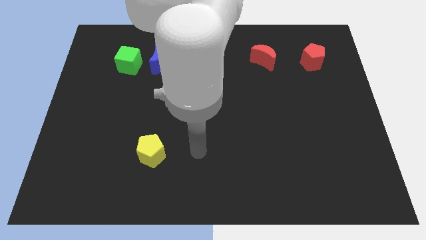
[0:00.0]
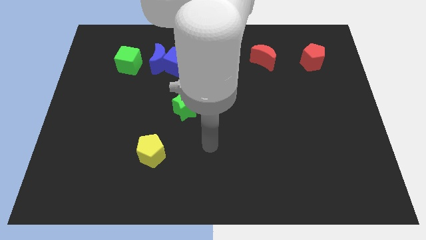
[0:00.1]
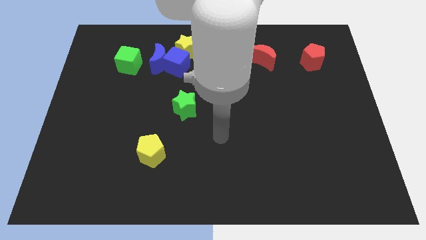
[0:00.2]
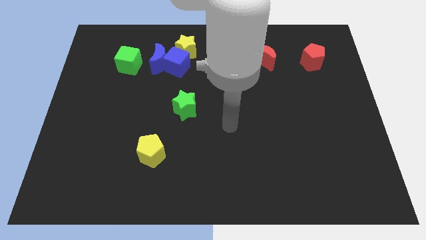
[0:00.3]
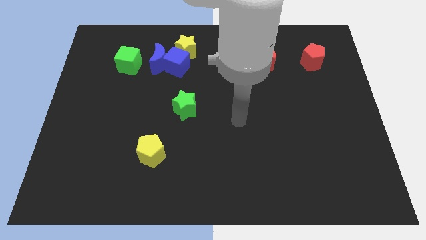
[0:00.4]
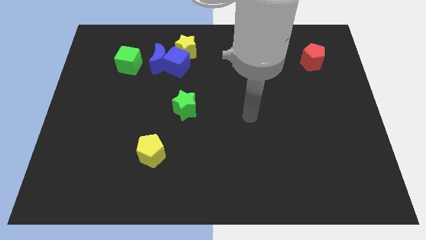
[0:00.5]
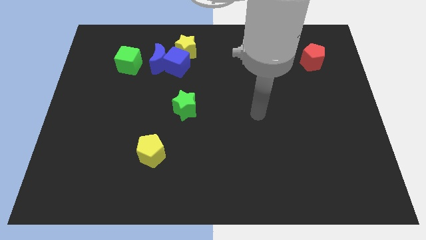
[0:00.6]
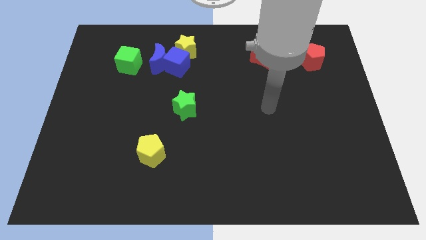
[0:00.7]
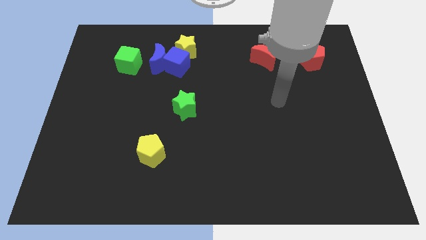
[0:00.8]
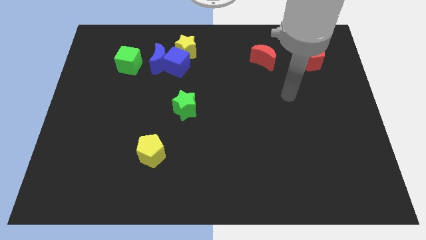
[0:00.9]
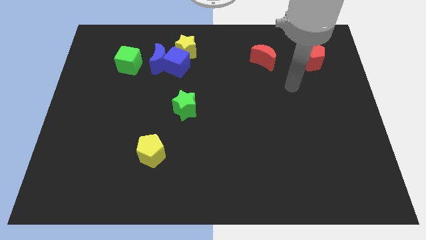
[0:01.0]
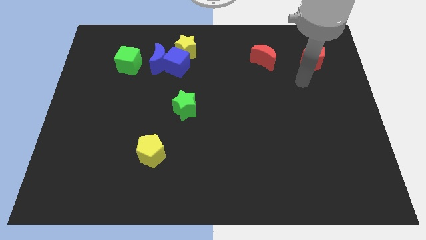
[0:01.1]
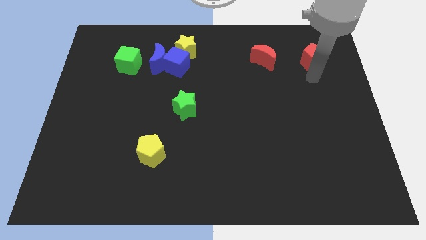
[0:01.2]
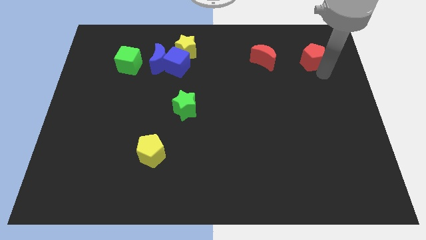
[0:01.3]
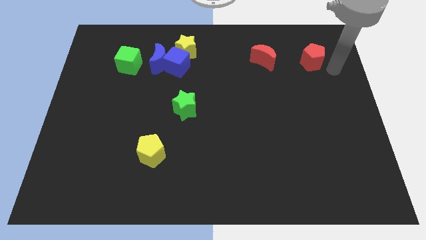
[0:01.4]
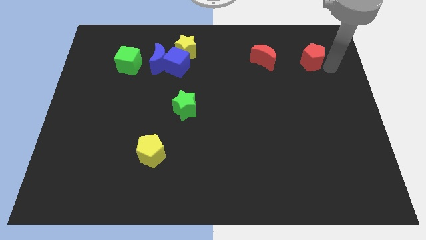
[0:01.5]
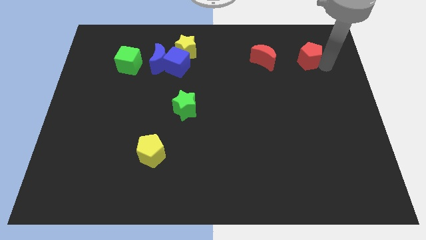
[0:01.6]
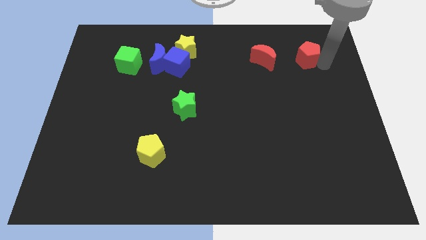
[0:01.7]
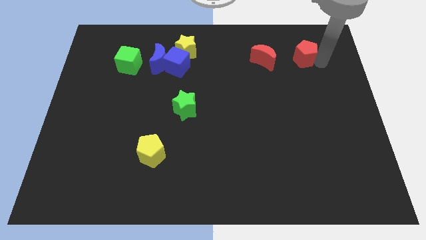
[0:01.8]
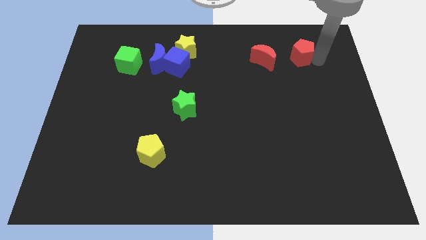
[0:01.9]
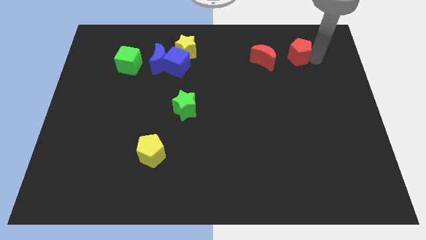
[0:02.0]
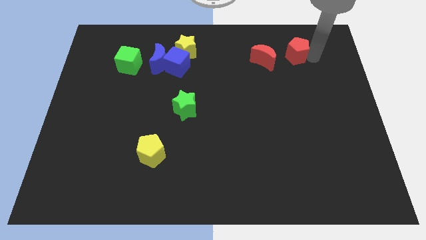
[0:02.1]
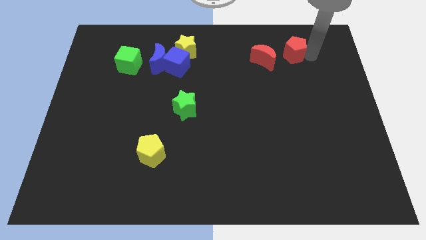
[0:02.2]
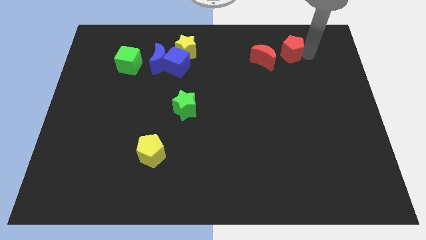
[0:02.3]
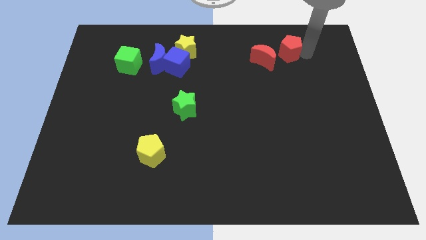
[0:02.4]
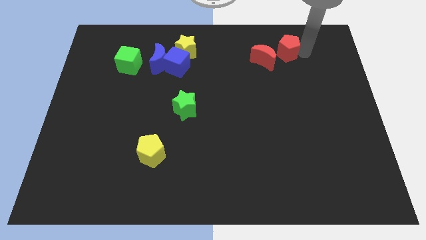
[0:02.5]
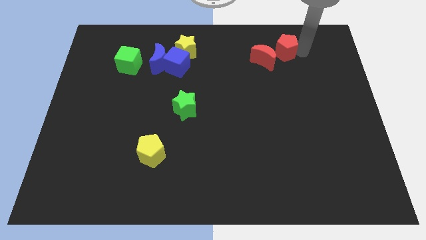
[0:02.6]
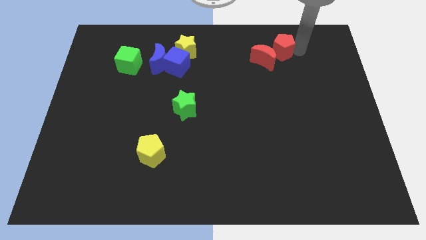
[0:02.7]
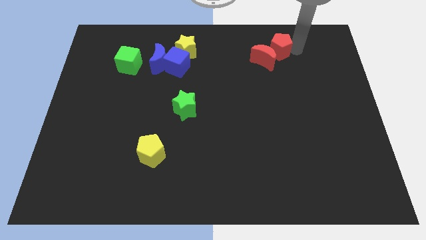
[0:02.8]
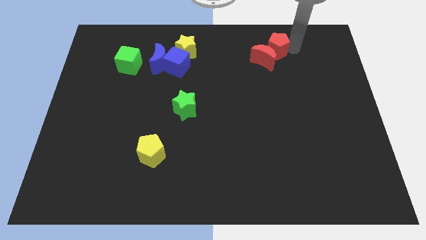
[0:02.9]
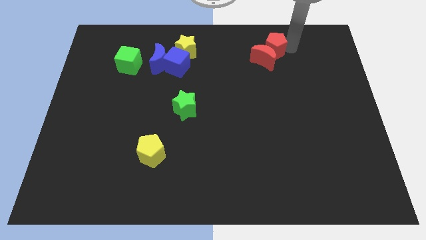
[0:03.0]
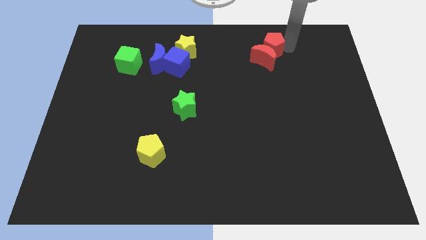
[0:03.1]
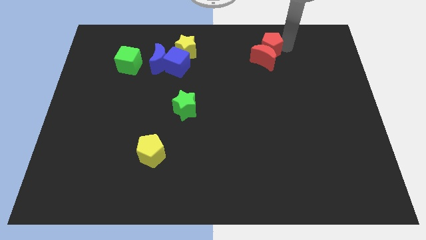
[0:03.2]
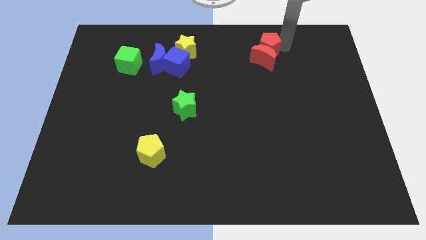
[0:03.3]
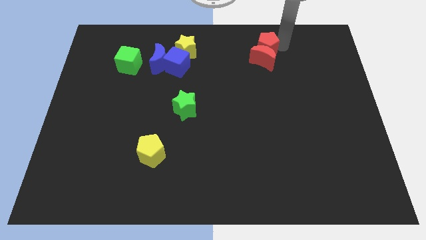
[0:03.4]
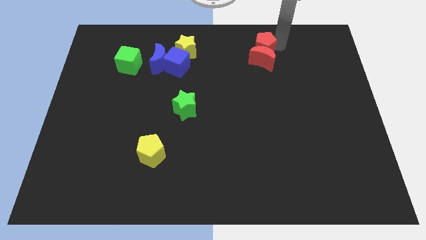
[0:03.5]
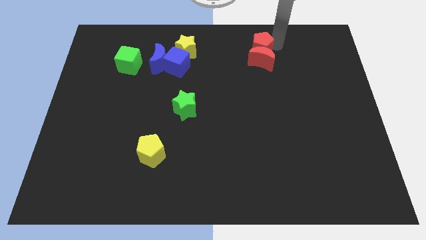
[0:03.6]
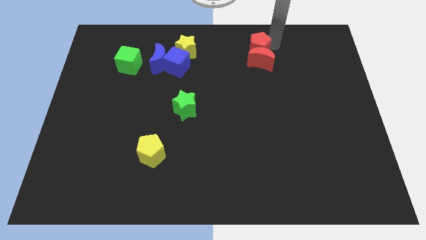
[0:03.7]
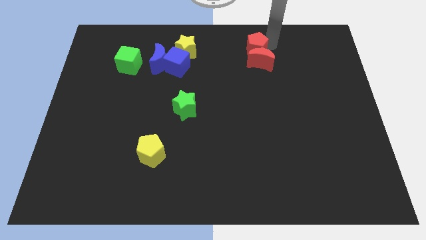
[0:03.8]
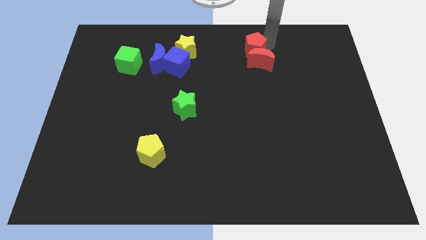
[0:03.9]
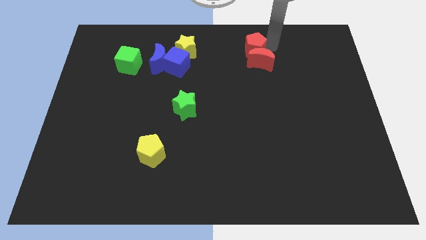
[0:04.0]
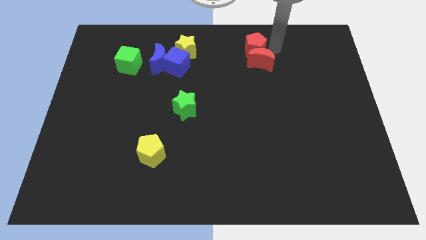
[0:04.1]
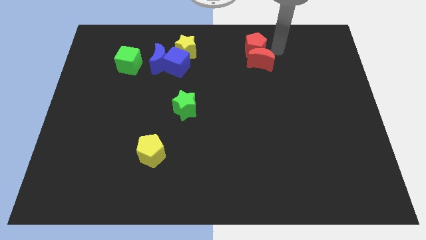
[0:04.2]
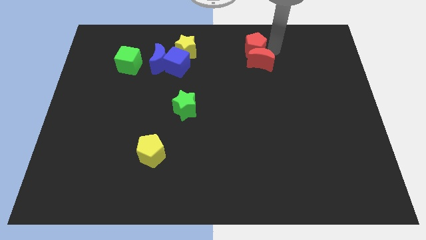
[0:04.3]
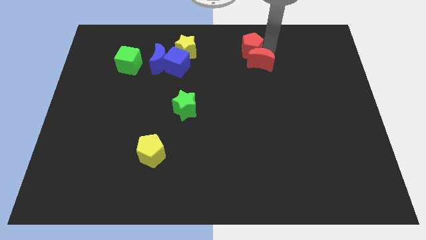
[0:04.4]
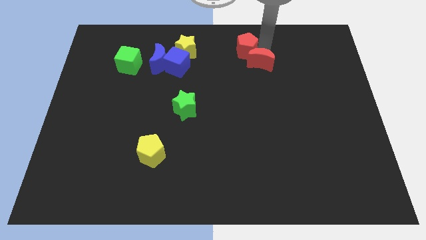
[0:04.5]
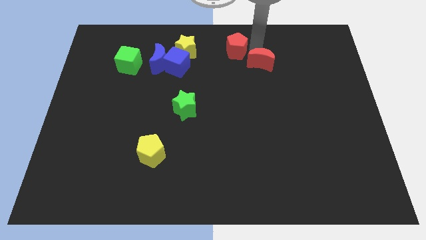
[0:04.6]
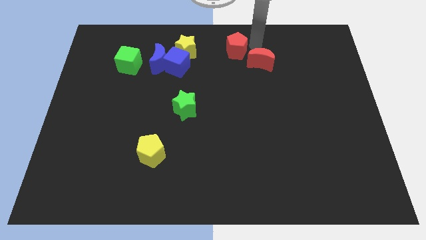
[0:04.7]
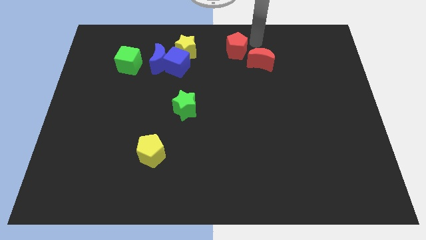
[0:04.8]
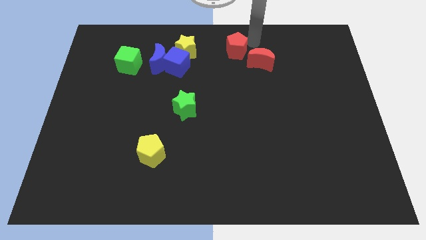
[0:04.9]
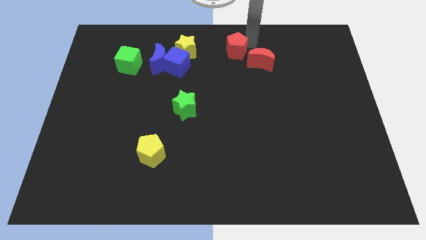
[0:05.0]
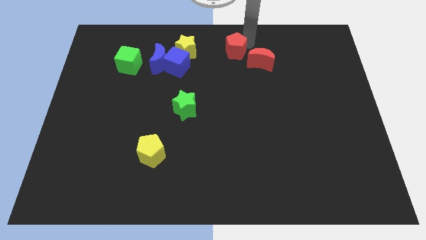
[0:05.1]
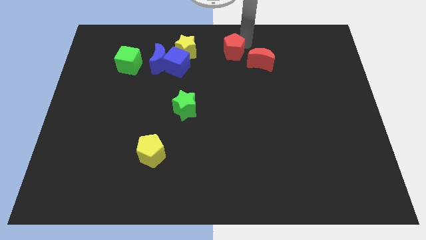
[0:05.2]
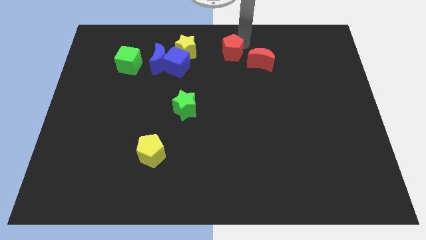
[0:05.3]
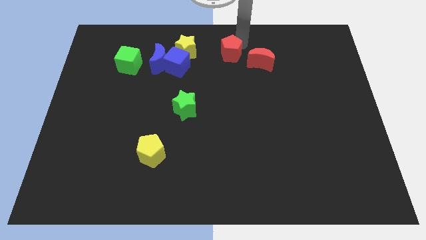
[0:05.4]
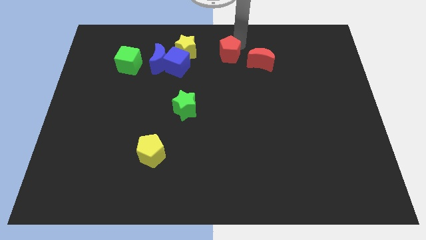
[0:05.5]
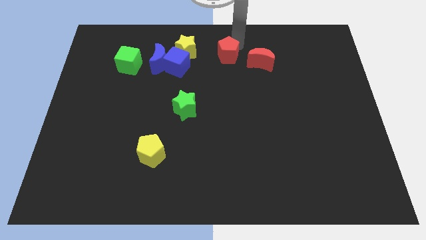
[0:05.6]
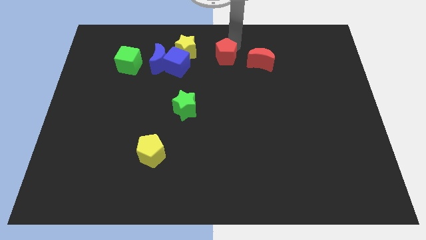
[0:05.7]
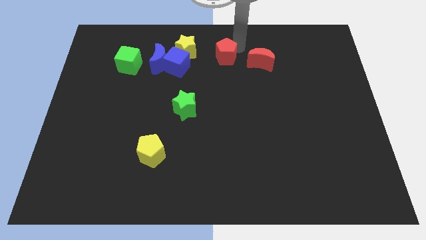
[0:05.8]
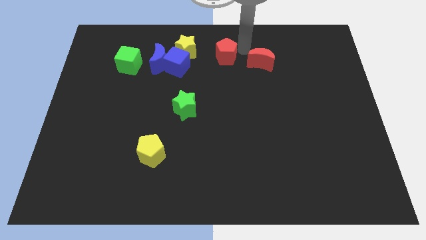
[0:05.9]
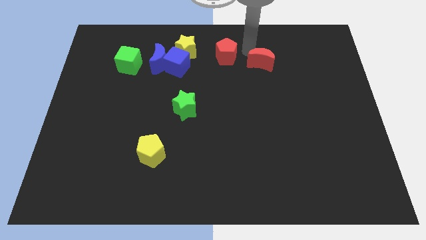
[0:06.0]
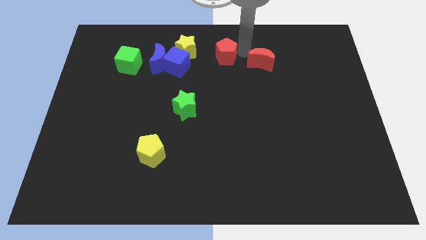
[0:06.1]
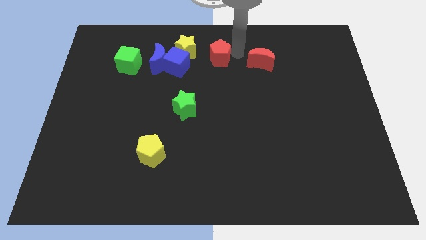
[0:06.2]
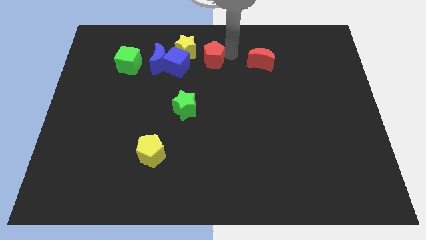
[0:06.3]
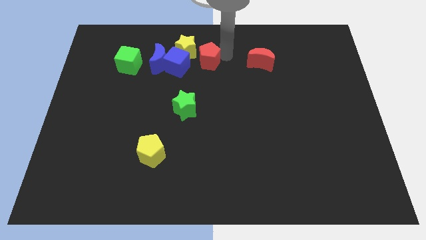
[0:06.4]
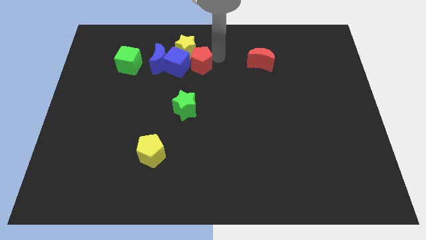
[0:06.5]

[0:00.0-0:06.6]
slide the red pentagon towards the blue cube

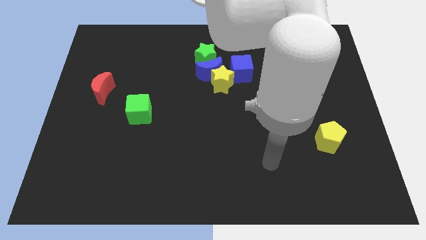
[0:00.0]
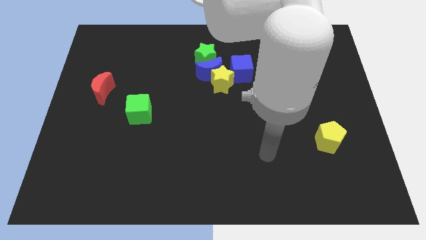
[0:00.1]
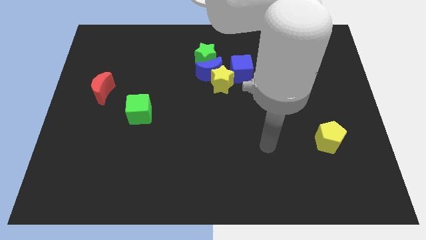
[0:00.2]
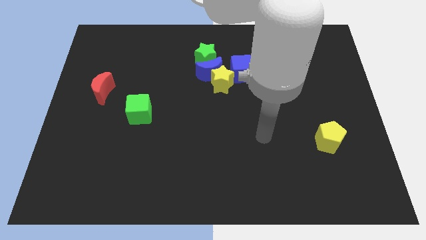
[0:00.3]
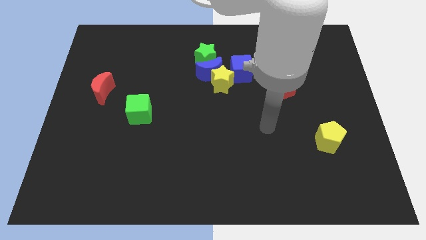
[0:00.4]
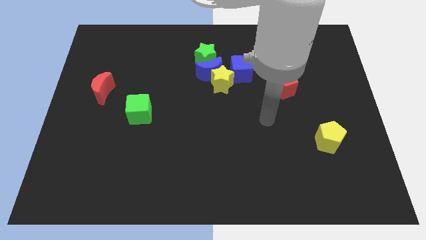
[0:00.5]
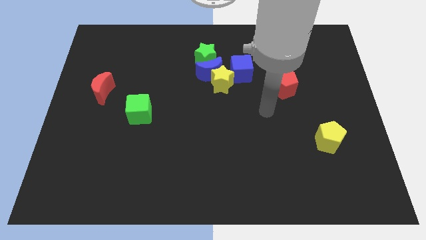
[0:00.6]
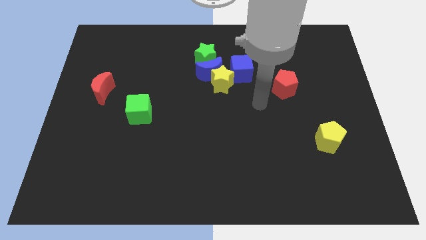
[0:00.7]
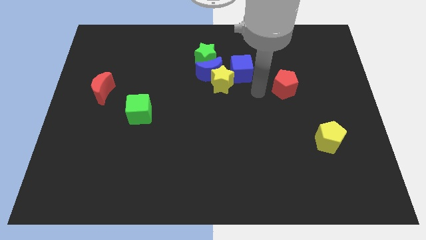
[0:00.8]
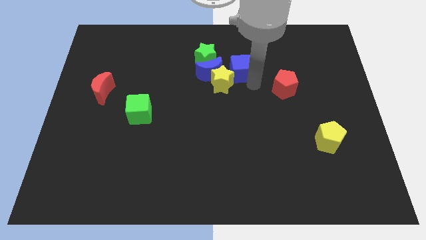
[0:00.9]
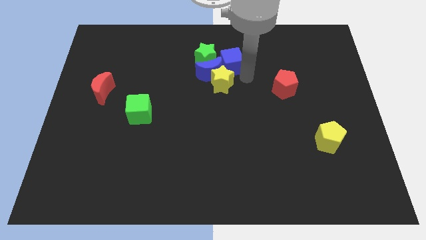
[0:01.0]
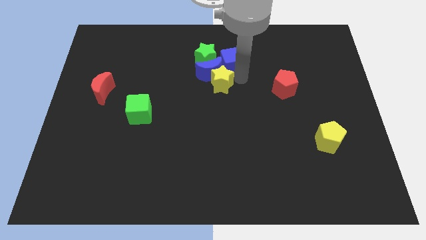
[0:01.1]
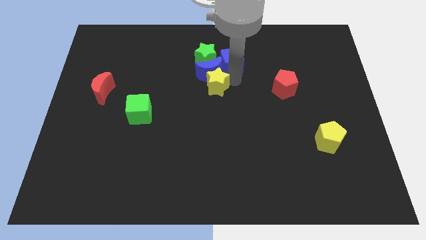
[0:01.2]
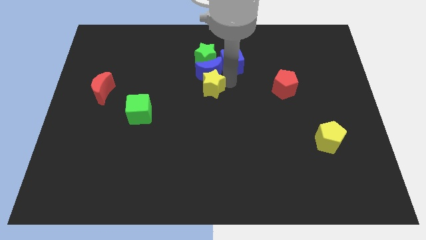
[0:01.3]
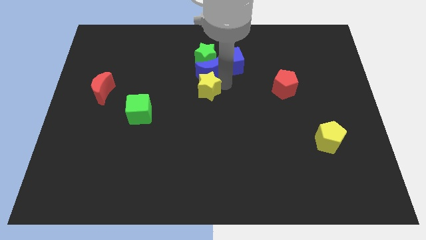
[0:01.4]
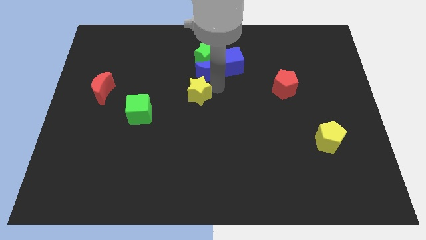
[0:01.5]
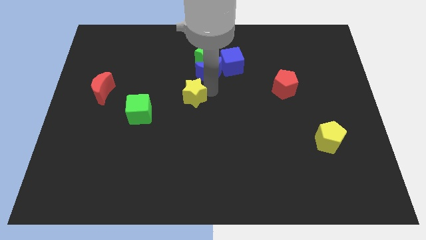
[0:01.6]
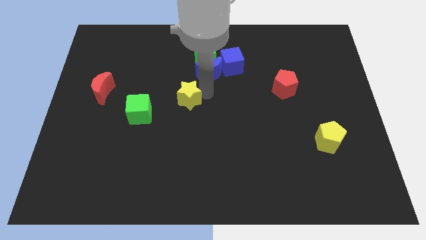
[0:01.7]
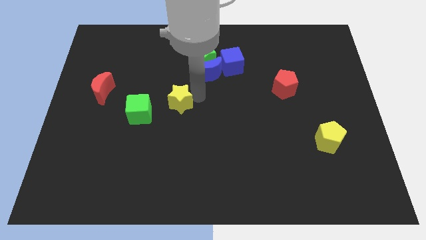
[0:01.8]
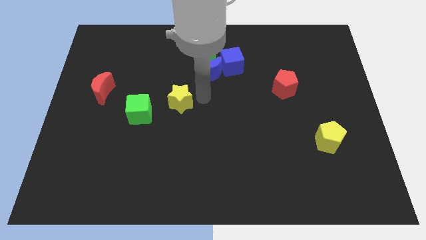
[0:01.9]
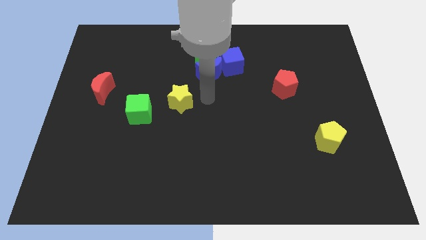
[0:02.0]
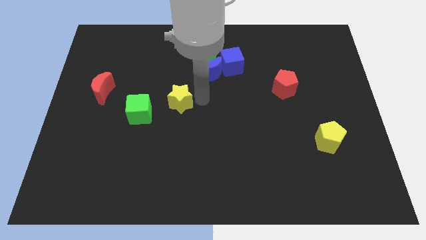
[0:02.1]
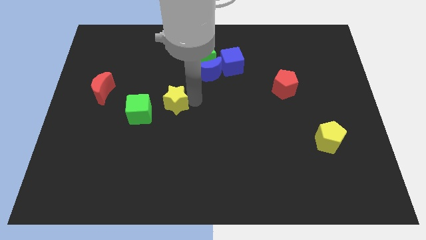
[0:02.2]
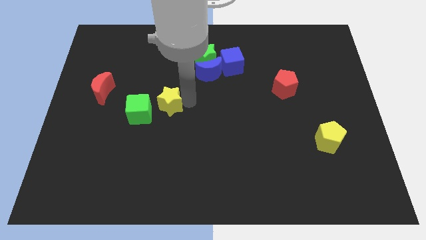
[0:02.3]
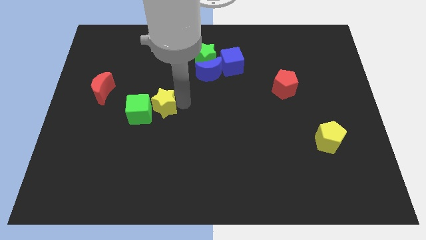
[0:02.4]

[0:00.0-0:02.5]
slide the yellow star to the green cube
